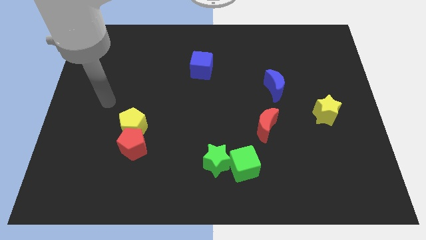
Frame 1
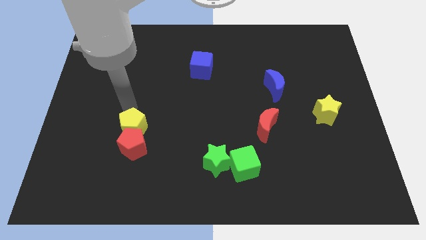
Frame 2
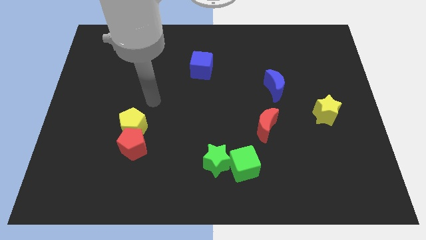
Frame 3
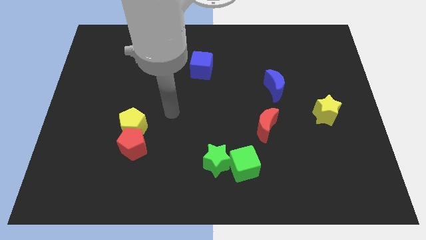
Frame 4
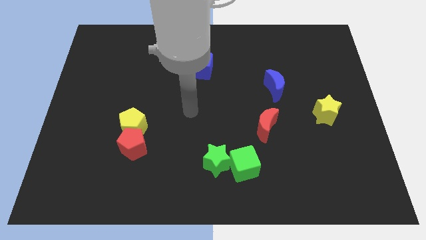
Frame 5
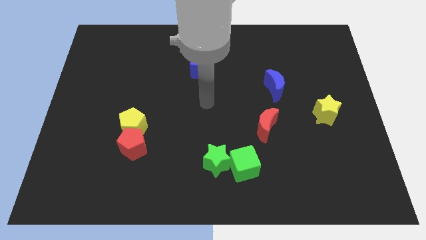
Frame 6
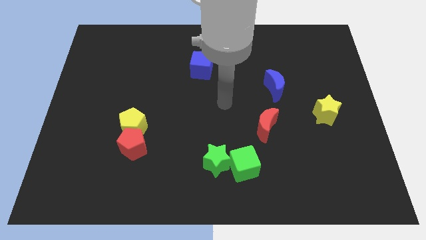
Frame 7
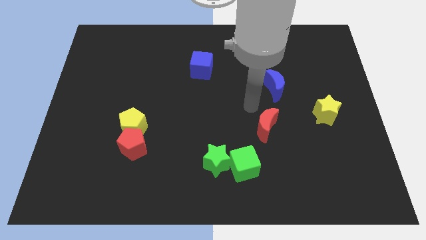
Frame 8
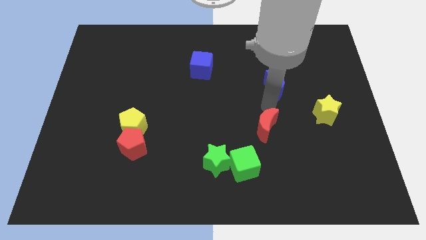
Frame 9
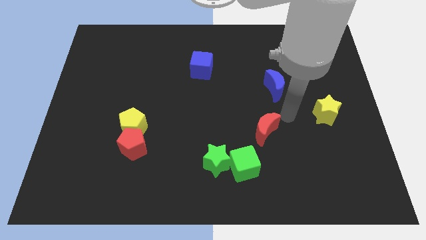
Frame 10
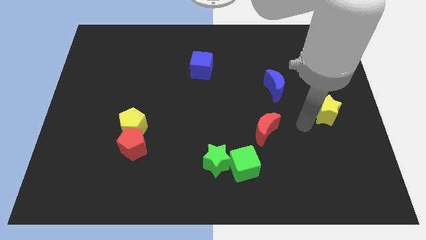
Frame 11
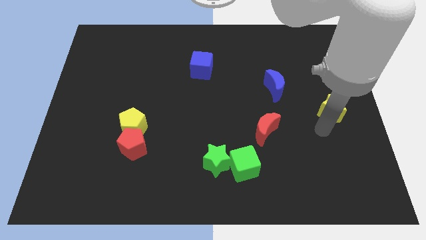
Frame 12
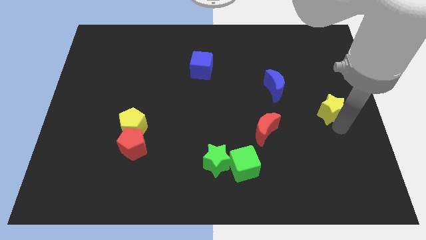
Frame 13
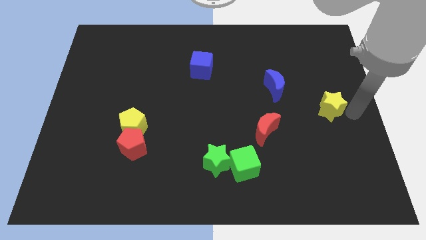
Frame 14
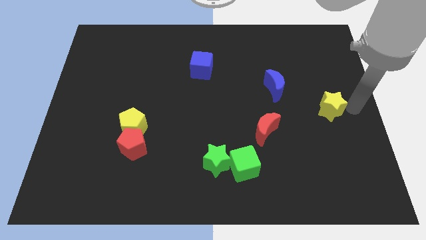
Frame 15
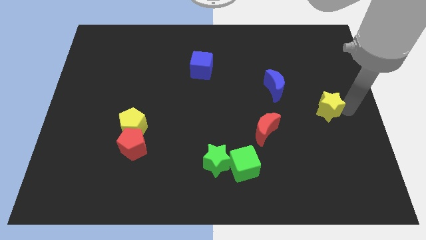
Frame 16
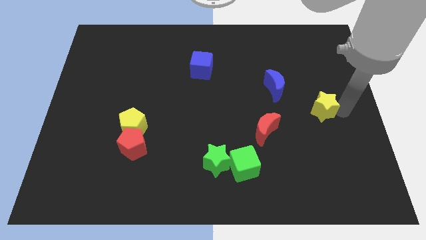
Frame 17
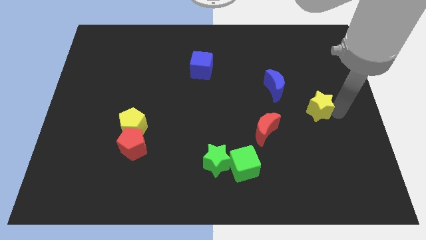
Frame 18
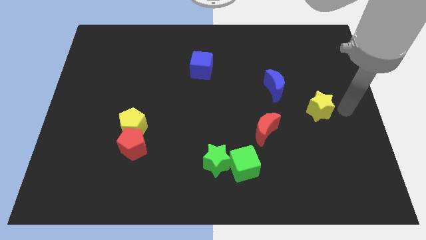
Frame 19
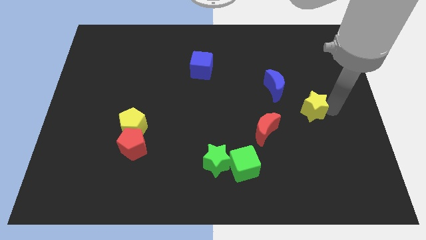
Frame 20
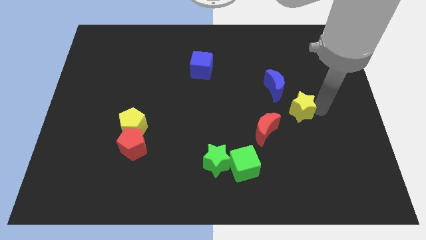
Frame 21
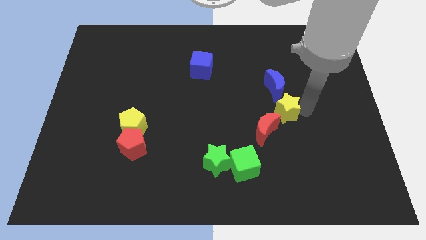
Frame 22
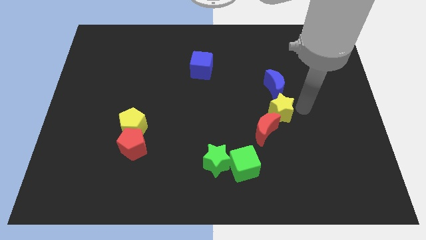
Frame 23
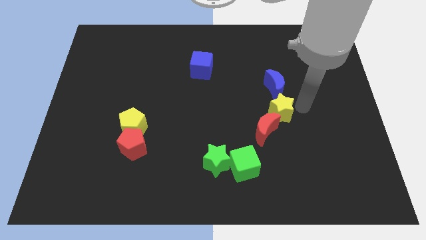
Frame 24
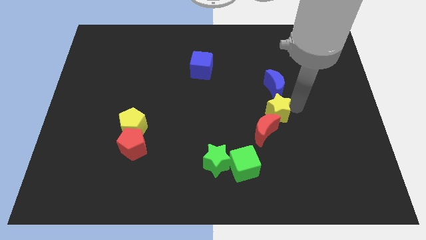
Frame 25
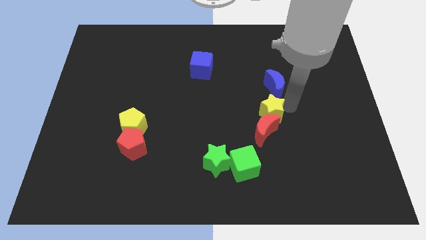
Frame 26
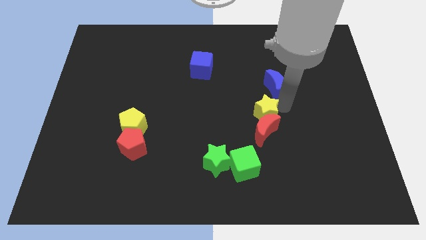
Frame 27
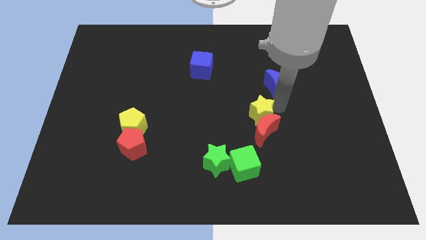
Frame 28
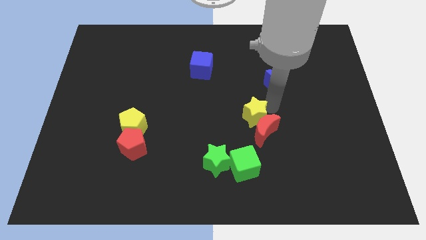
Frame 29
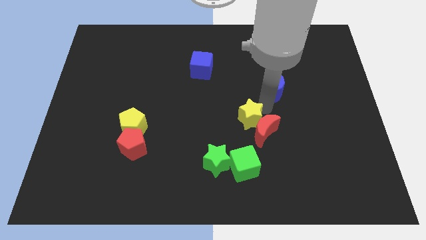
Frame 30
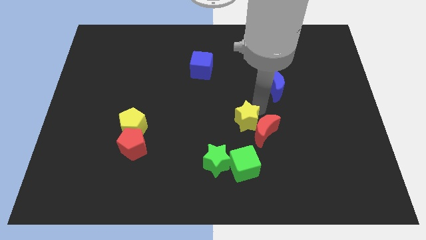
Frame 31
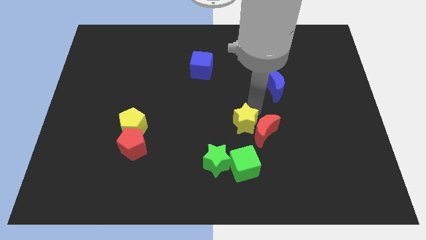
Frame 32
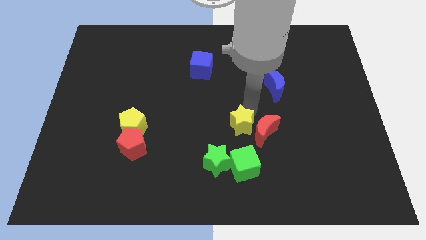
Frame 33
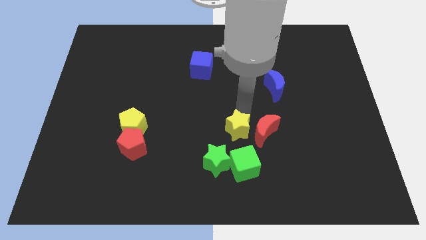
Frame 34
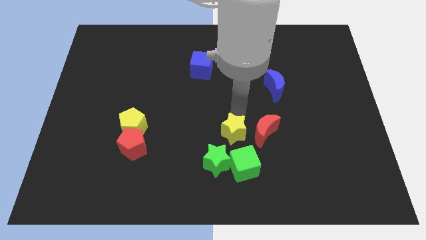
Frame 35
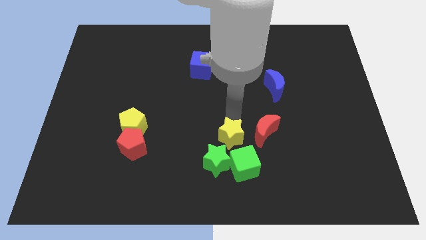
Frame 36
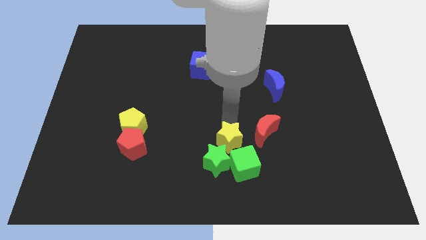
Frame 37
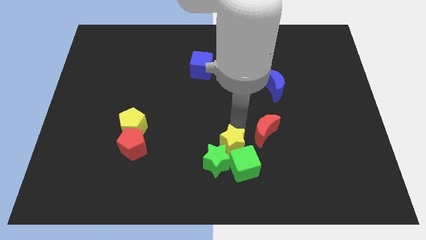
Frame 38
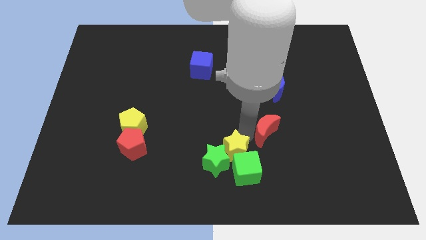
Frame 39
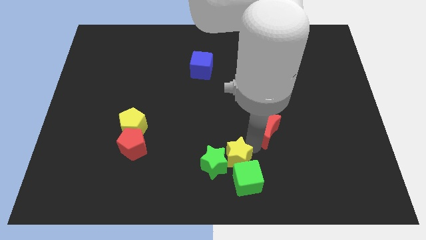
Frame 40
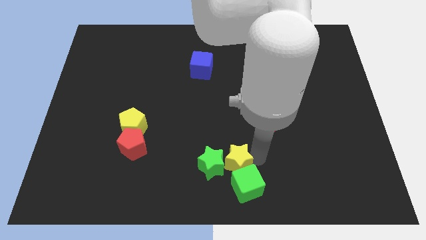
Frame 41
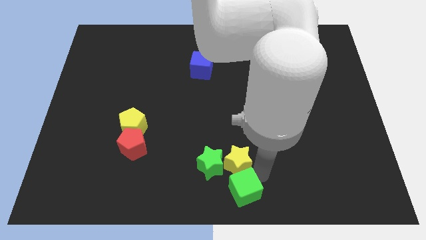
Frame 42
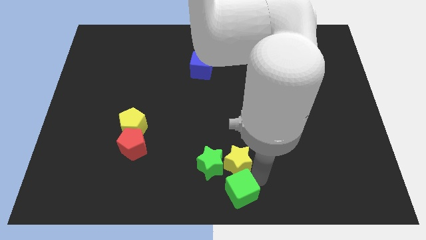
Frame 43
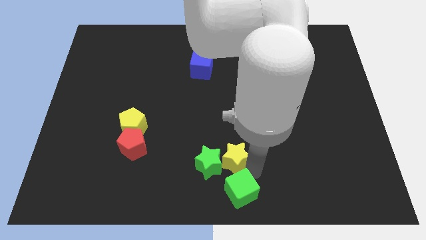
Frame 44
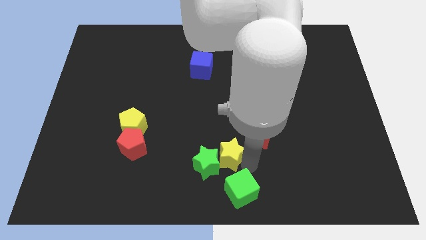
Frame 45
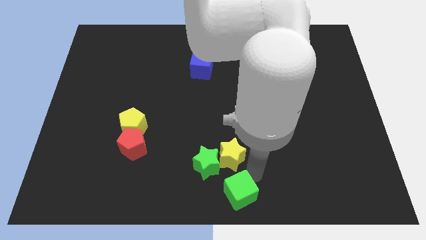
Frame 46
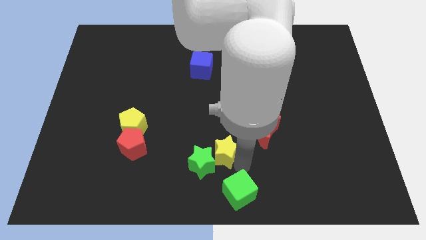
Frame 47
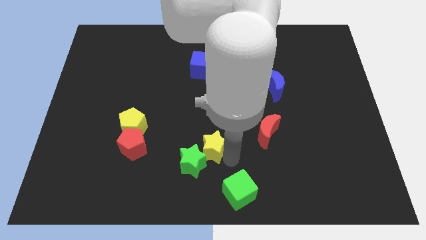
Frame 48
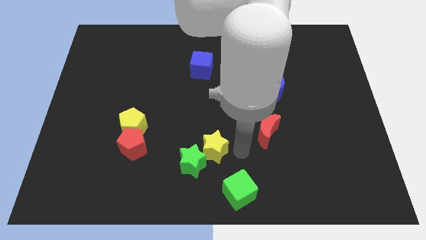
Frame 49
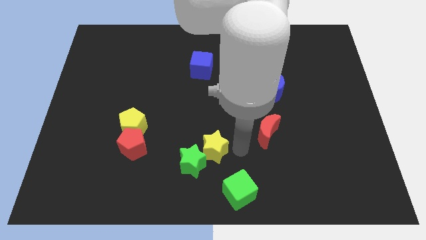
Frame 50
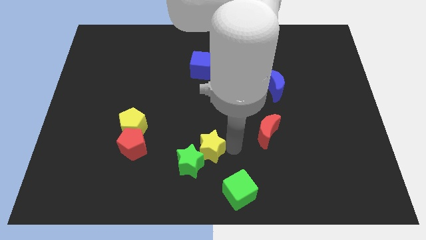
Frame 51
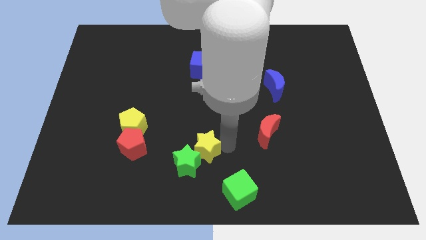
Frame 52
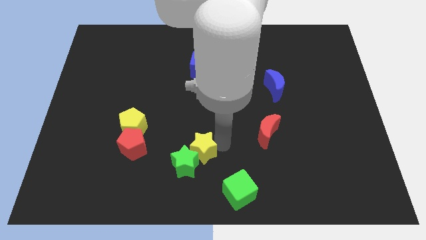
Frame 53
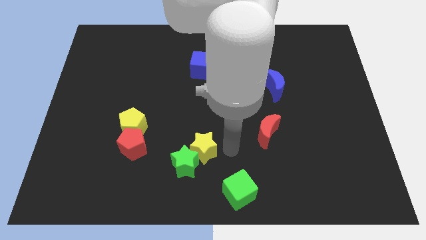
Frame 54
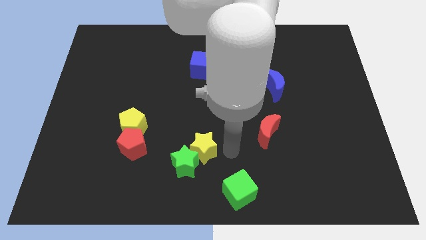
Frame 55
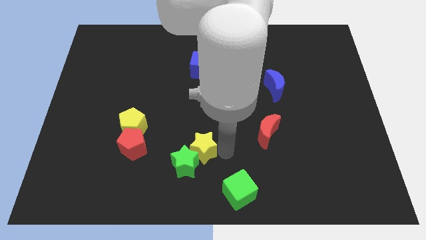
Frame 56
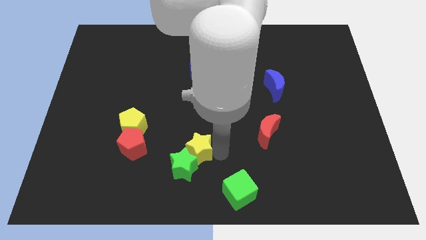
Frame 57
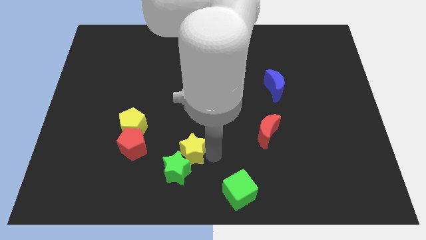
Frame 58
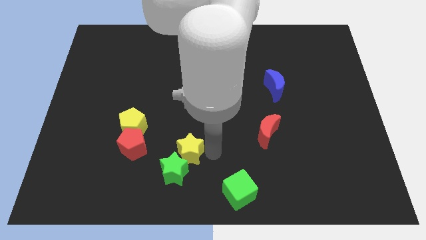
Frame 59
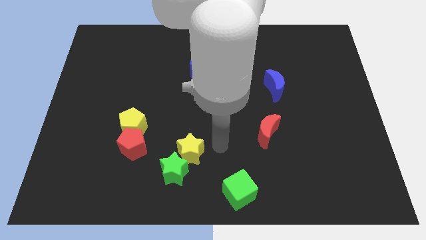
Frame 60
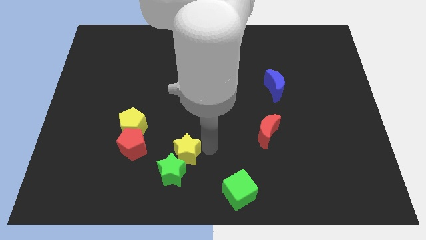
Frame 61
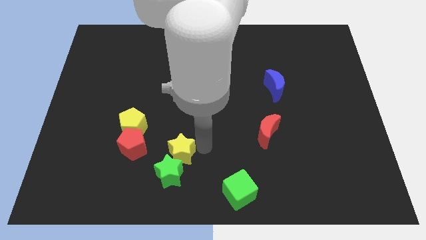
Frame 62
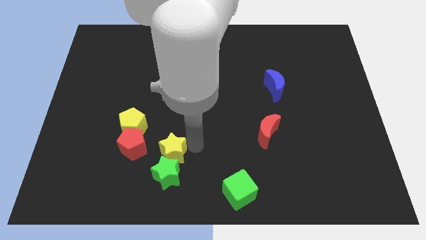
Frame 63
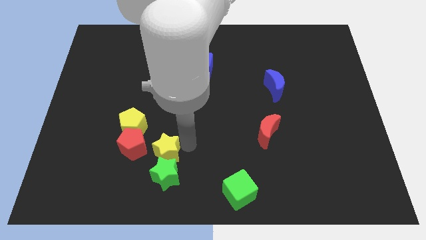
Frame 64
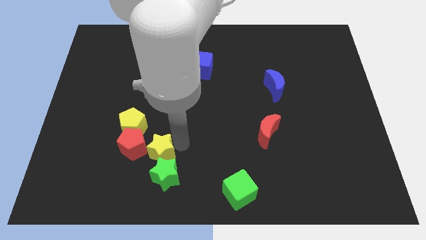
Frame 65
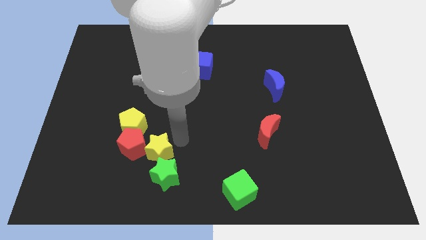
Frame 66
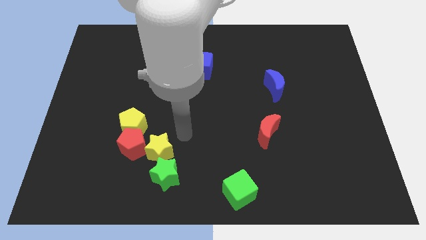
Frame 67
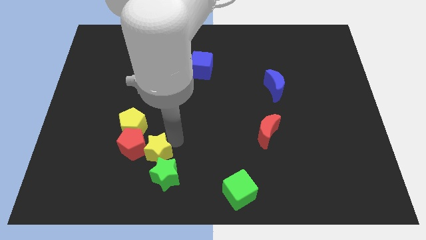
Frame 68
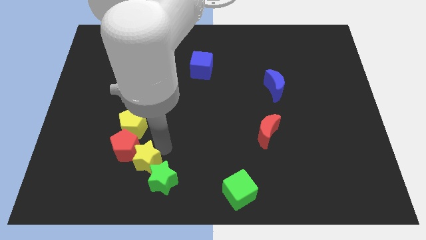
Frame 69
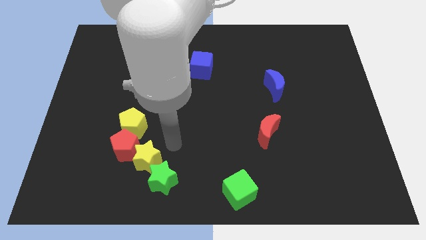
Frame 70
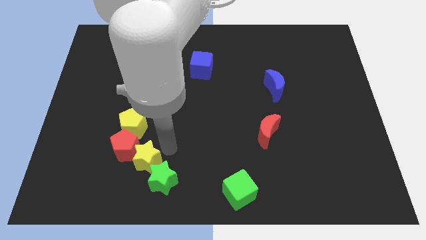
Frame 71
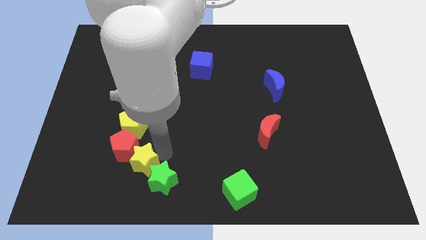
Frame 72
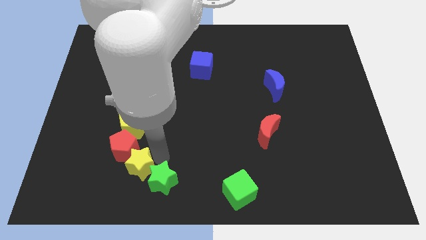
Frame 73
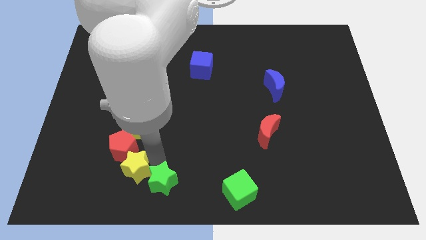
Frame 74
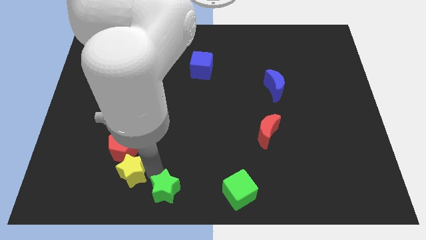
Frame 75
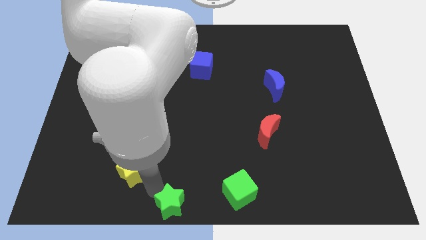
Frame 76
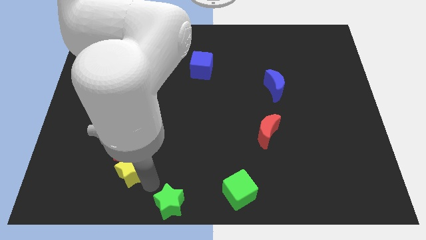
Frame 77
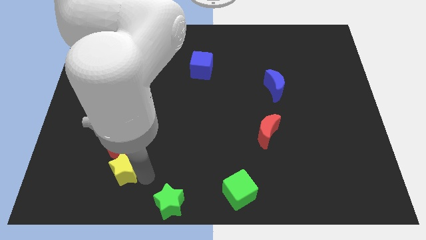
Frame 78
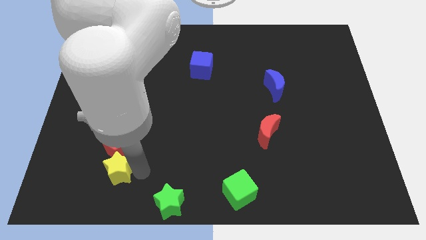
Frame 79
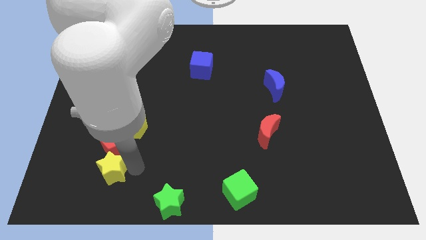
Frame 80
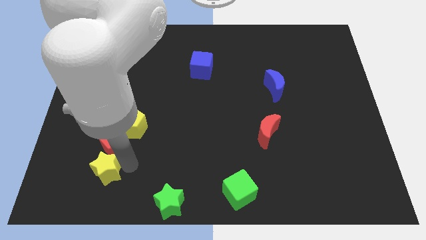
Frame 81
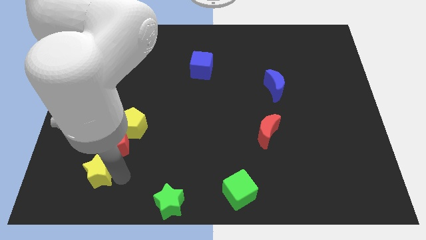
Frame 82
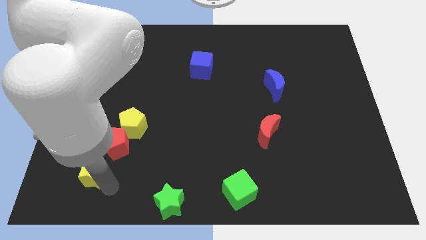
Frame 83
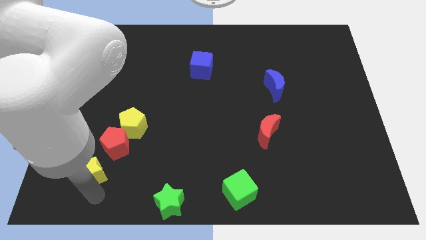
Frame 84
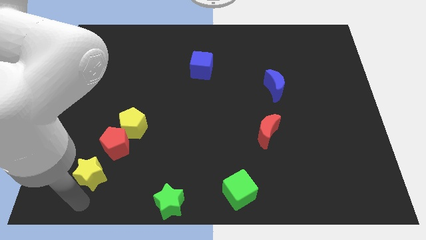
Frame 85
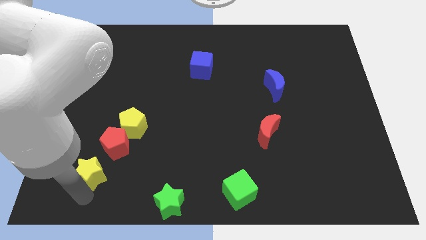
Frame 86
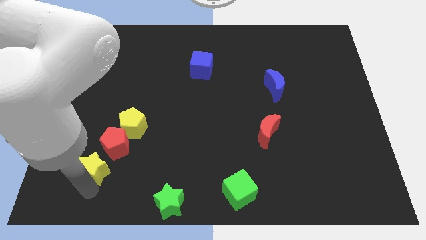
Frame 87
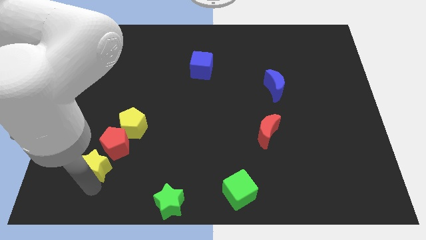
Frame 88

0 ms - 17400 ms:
put the yellow star diagonally down and to the left of the yellow pentagon
